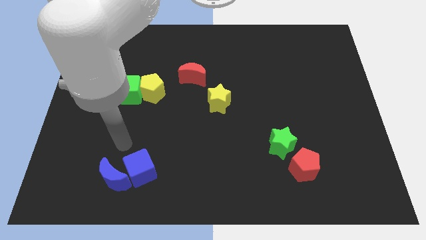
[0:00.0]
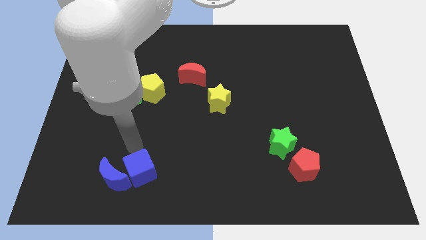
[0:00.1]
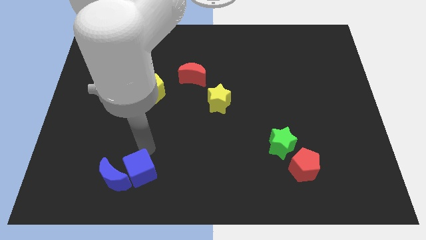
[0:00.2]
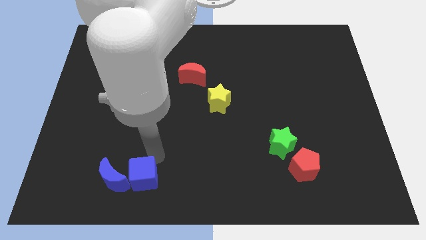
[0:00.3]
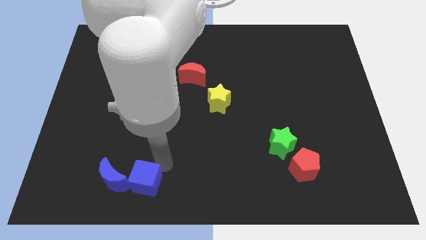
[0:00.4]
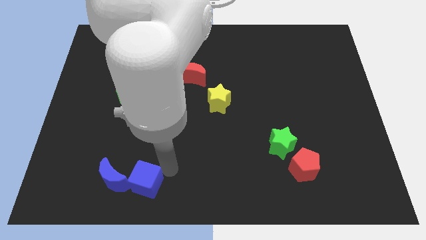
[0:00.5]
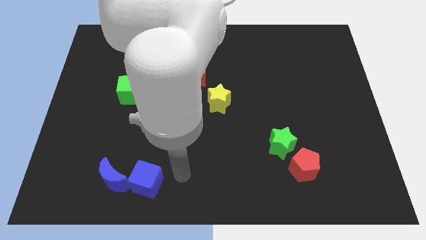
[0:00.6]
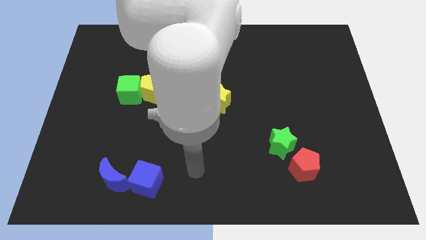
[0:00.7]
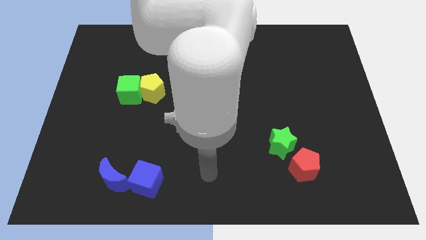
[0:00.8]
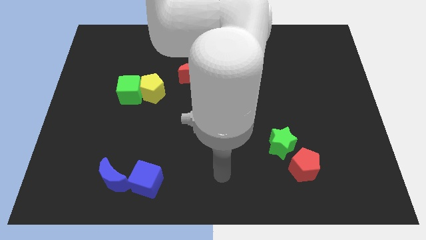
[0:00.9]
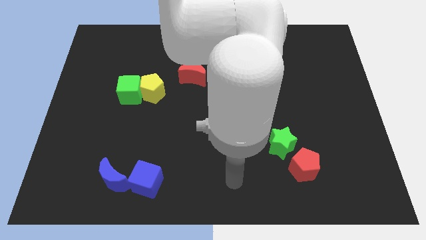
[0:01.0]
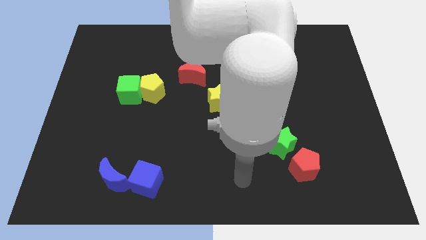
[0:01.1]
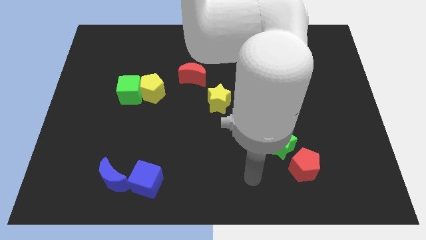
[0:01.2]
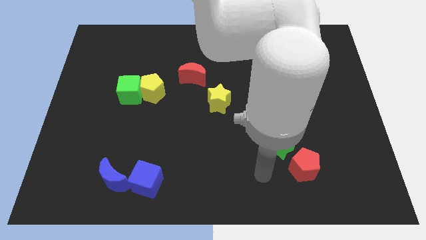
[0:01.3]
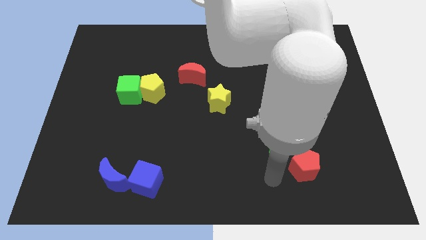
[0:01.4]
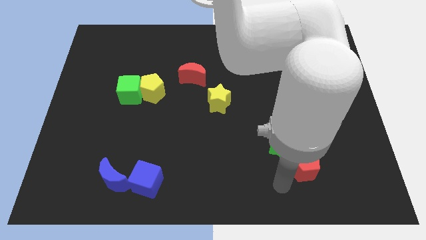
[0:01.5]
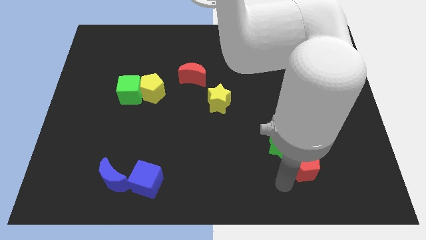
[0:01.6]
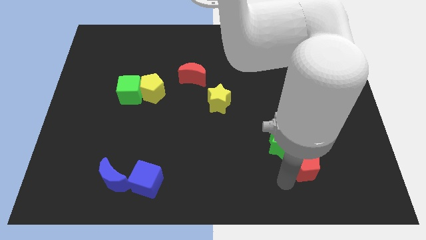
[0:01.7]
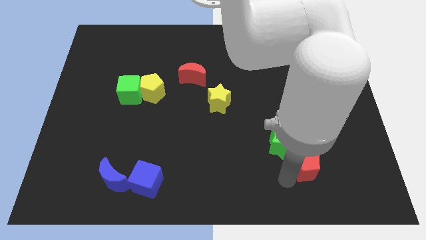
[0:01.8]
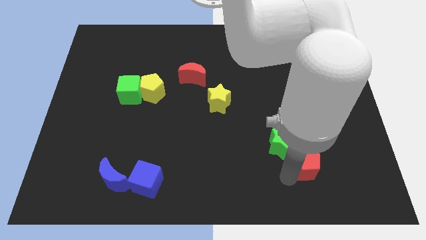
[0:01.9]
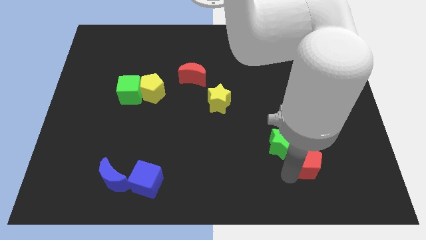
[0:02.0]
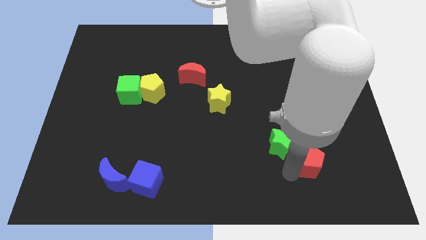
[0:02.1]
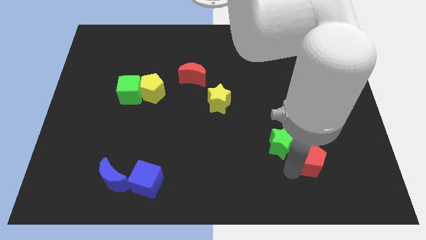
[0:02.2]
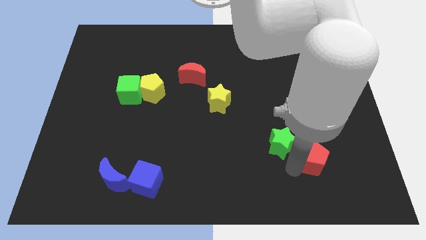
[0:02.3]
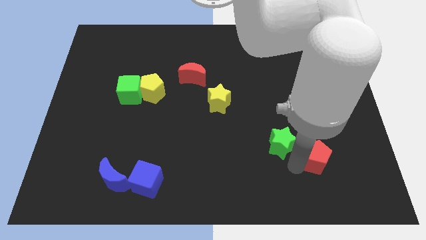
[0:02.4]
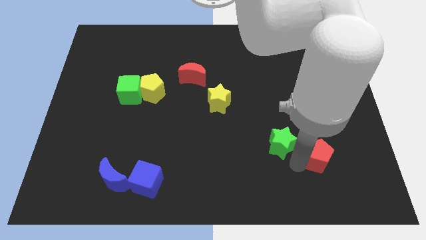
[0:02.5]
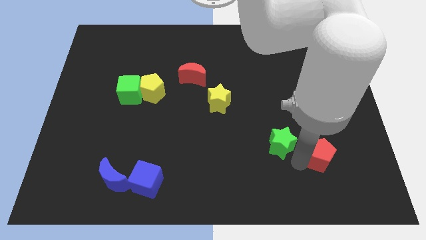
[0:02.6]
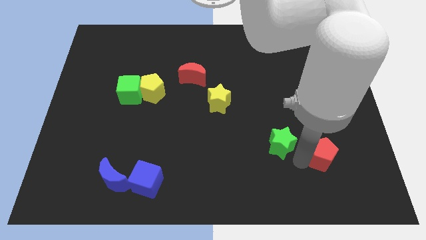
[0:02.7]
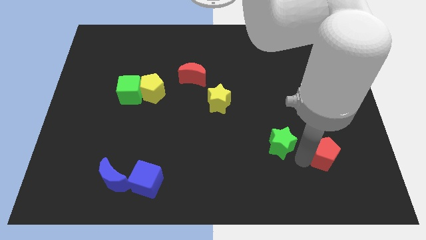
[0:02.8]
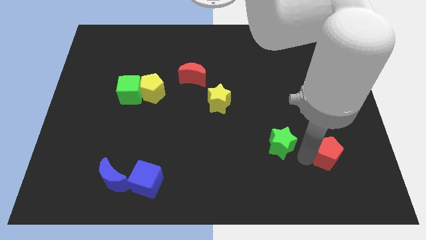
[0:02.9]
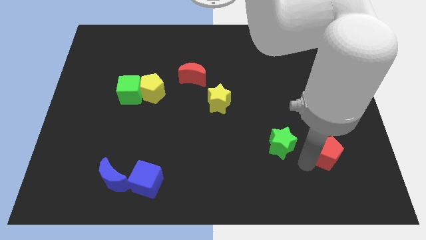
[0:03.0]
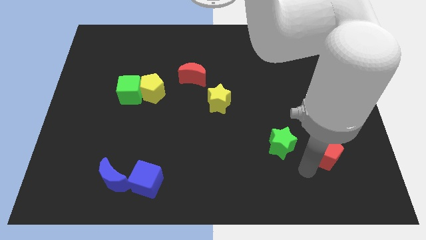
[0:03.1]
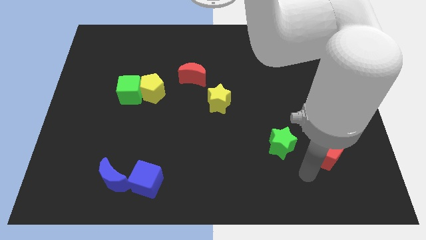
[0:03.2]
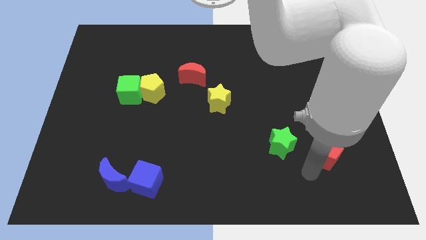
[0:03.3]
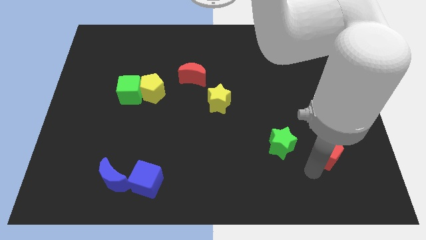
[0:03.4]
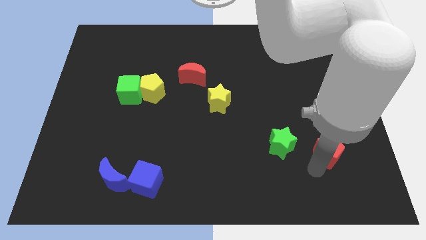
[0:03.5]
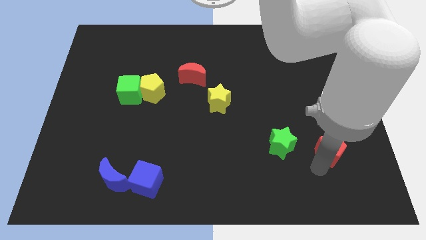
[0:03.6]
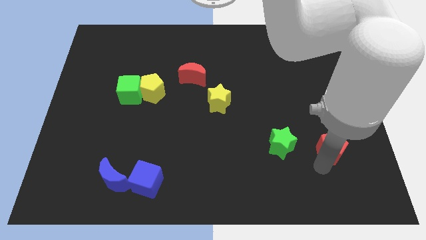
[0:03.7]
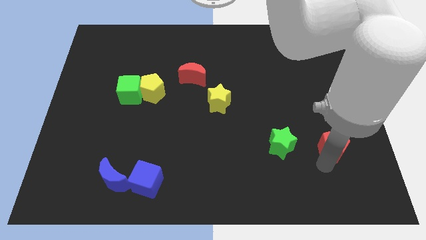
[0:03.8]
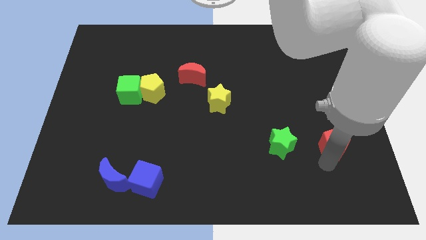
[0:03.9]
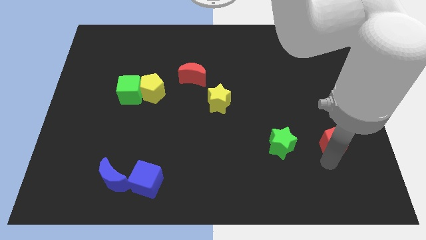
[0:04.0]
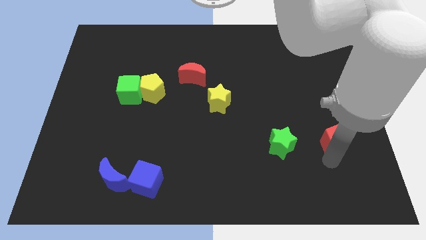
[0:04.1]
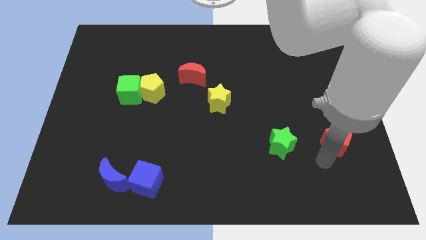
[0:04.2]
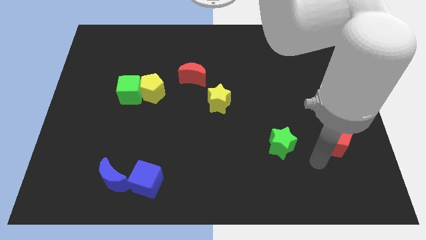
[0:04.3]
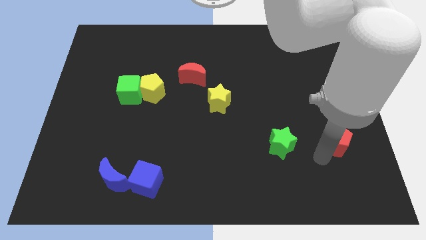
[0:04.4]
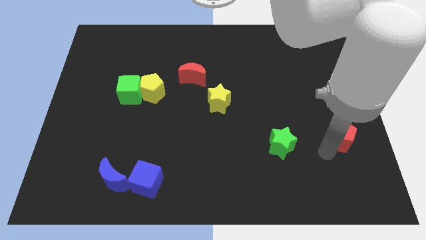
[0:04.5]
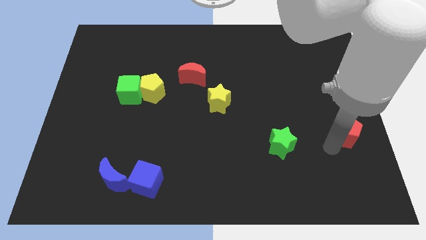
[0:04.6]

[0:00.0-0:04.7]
slide the red pentagon to the center right

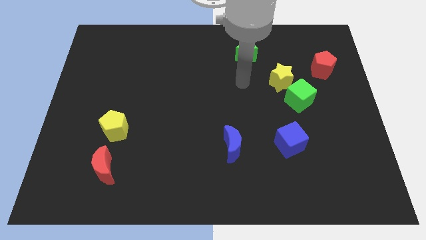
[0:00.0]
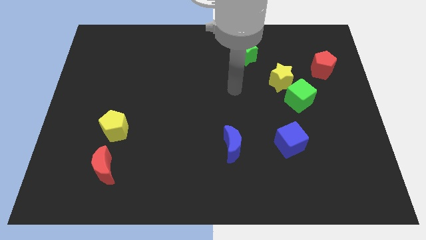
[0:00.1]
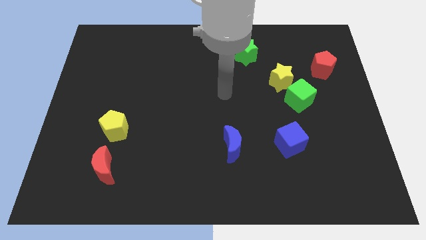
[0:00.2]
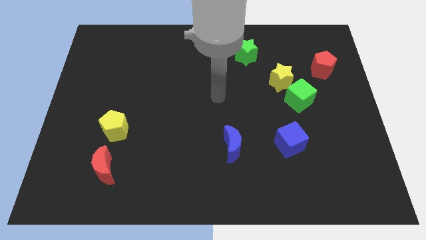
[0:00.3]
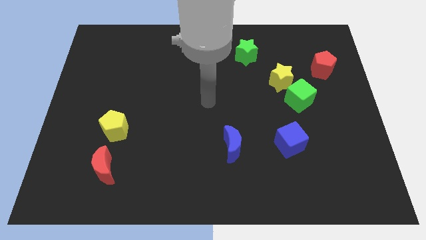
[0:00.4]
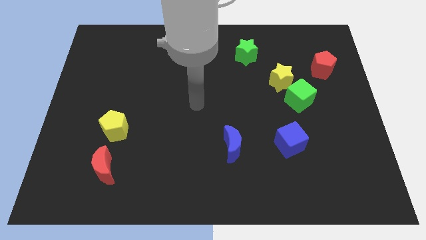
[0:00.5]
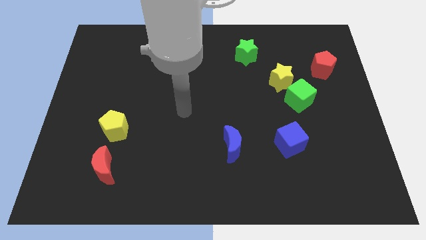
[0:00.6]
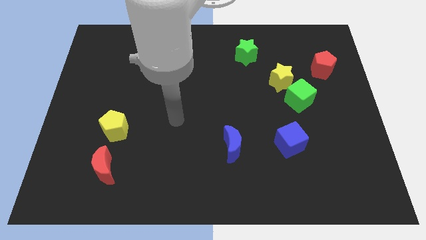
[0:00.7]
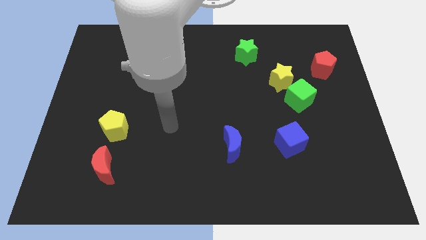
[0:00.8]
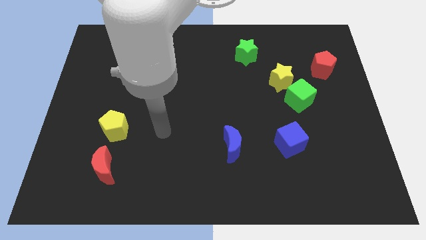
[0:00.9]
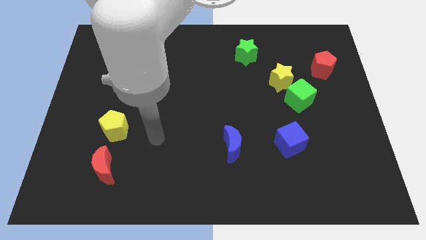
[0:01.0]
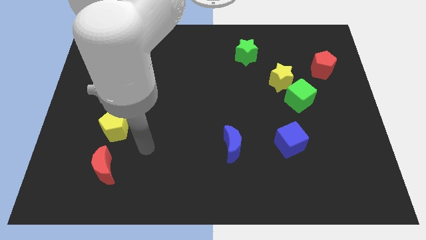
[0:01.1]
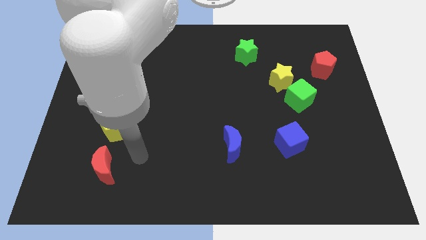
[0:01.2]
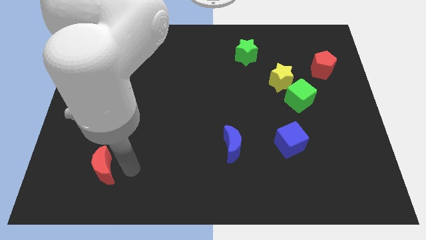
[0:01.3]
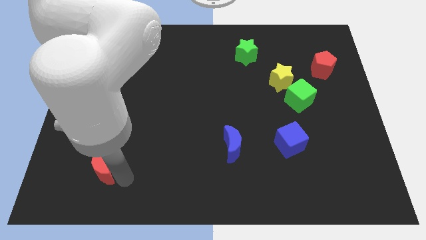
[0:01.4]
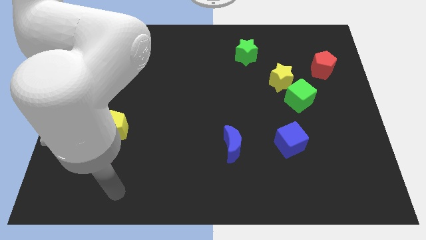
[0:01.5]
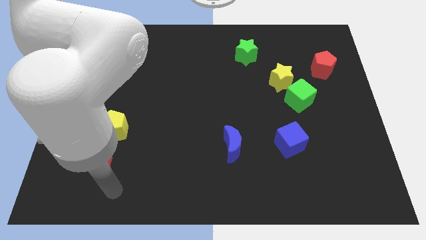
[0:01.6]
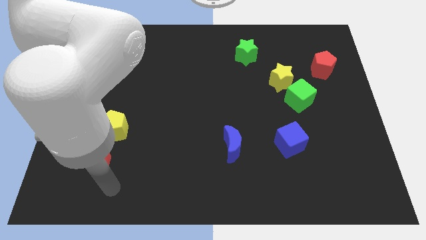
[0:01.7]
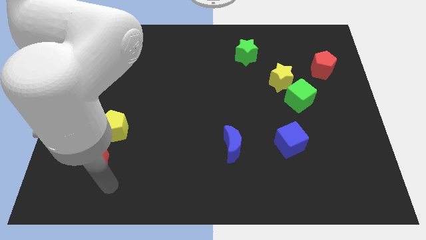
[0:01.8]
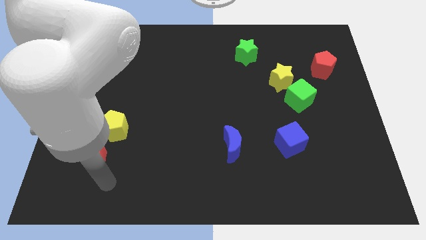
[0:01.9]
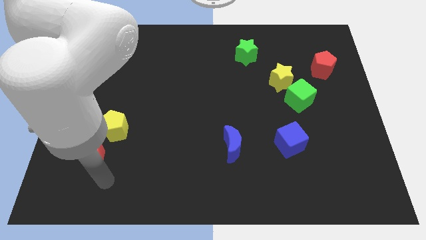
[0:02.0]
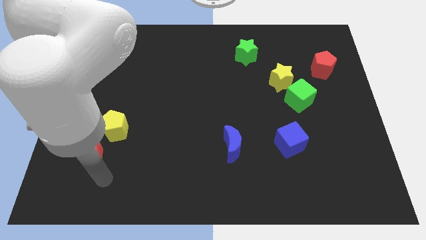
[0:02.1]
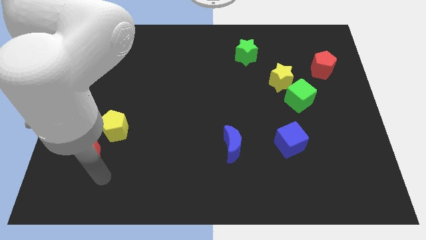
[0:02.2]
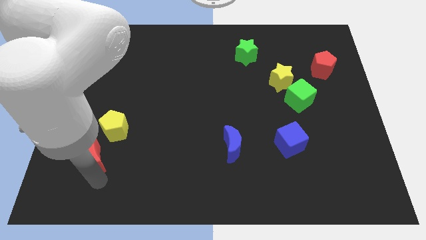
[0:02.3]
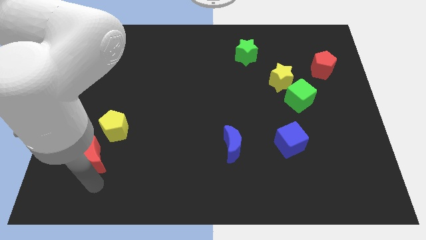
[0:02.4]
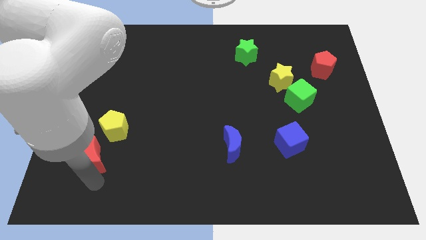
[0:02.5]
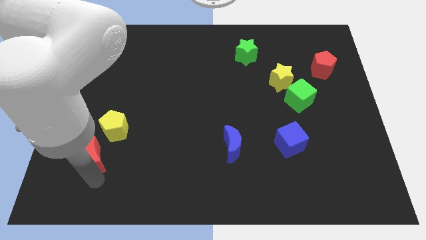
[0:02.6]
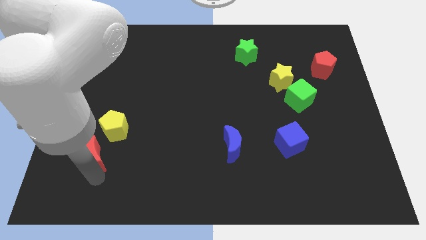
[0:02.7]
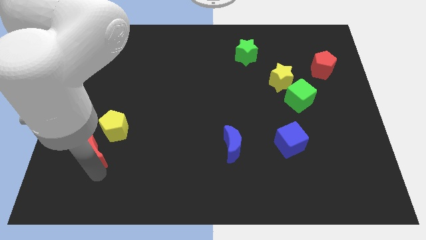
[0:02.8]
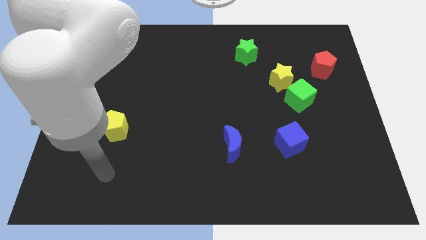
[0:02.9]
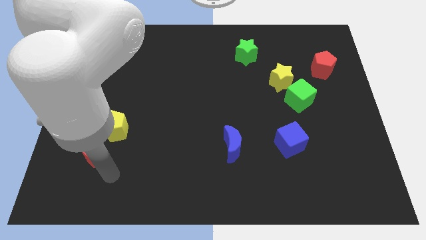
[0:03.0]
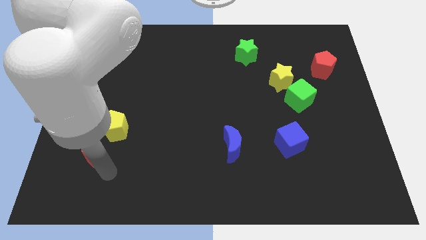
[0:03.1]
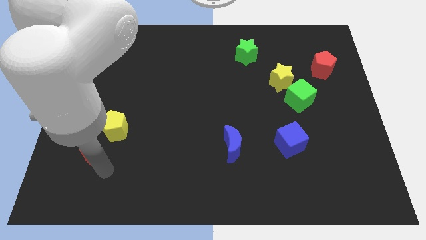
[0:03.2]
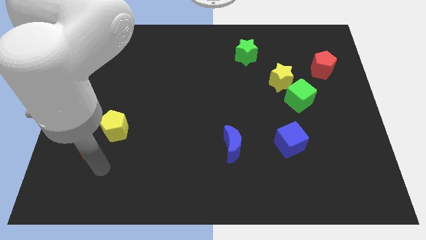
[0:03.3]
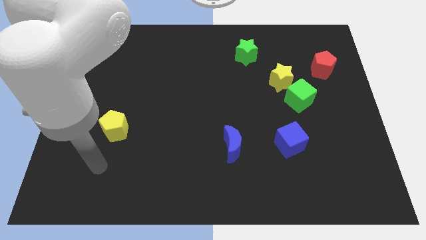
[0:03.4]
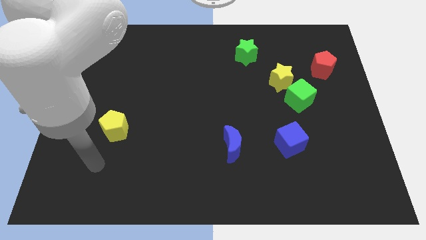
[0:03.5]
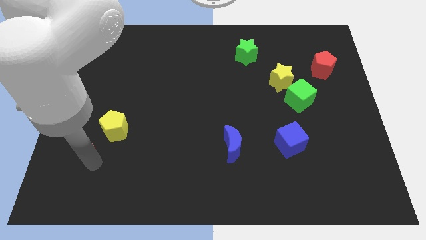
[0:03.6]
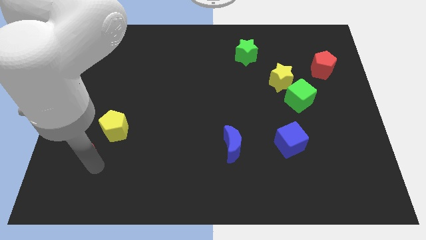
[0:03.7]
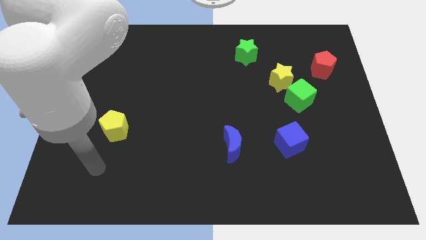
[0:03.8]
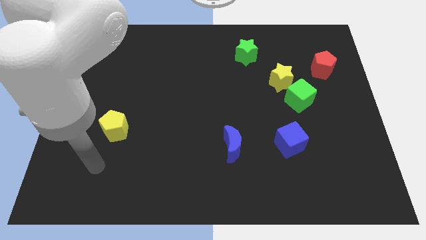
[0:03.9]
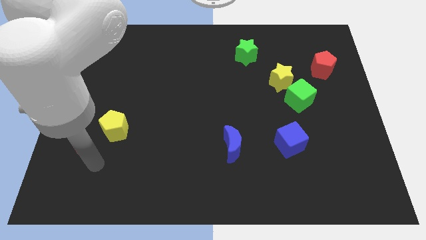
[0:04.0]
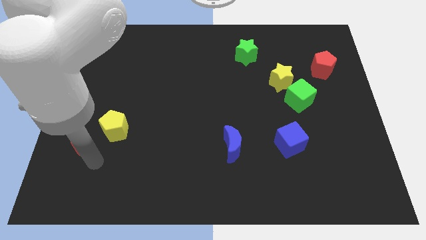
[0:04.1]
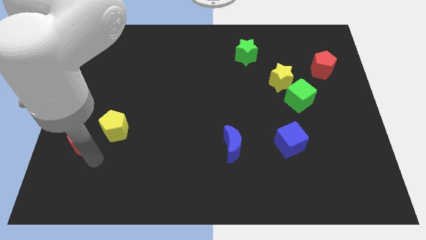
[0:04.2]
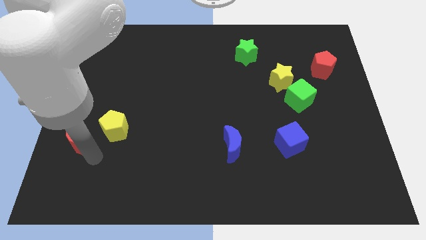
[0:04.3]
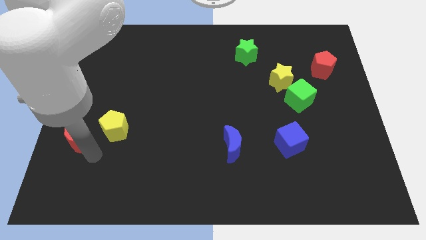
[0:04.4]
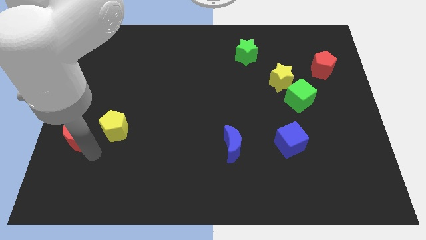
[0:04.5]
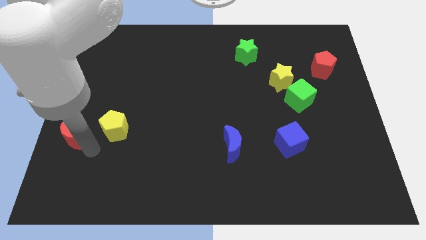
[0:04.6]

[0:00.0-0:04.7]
put the red moon to the left side of the board
